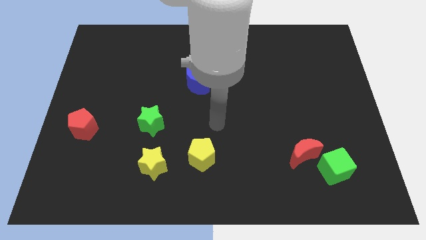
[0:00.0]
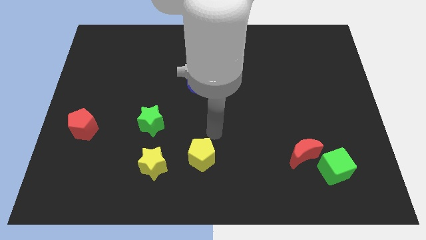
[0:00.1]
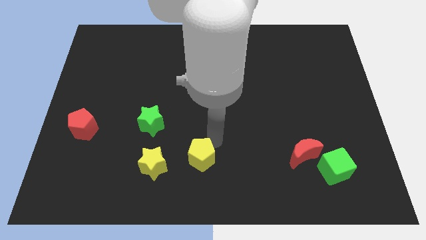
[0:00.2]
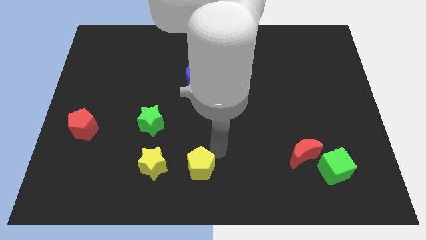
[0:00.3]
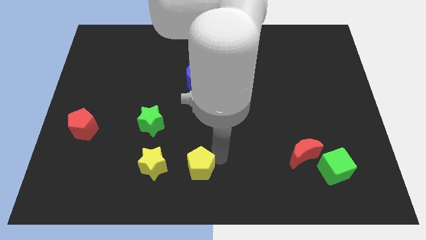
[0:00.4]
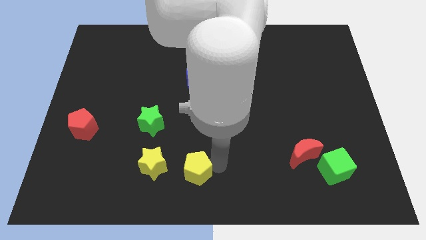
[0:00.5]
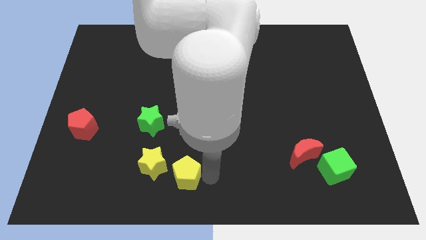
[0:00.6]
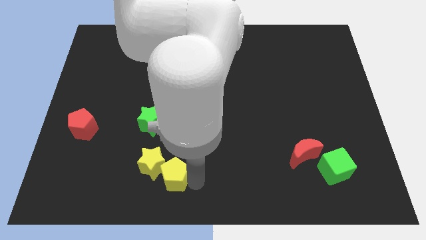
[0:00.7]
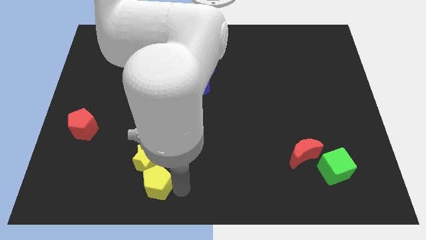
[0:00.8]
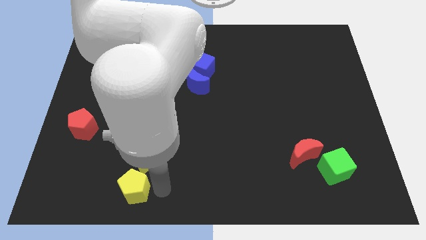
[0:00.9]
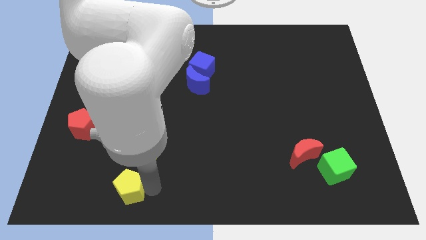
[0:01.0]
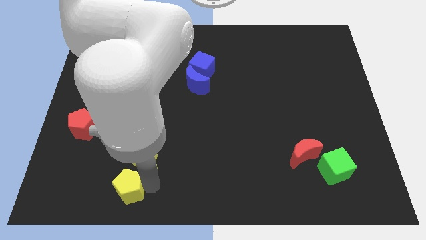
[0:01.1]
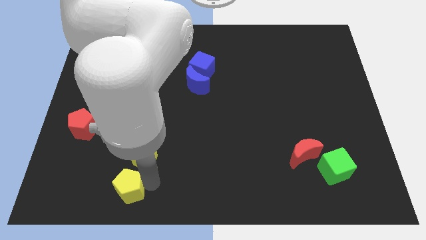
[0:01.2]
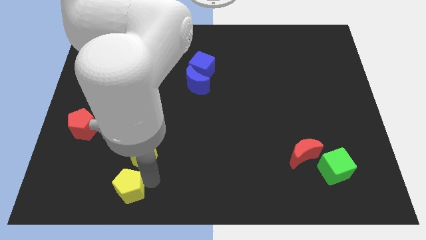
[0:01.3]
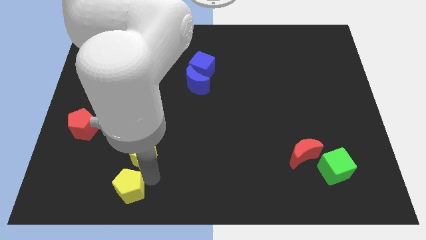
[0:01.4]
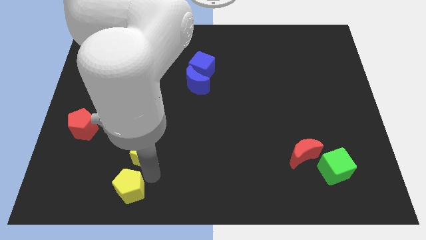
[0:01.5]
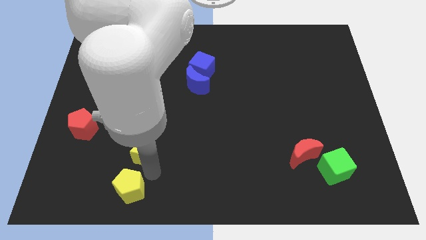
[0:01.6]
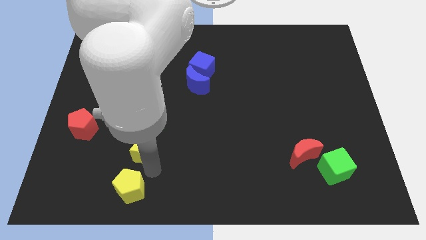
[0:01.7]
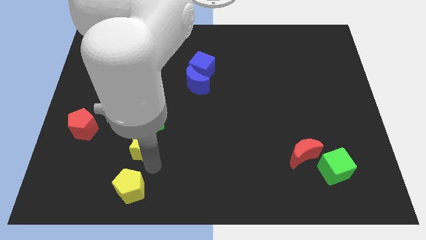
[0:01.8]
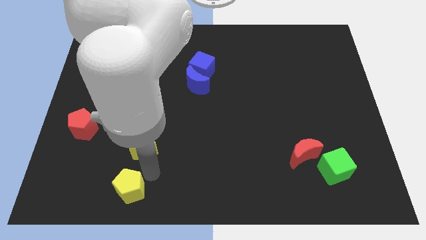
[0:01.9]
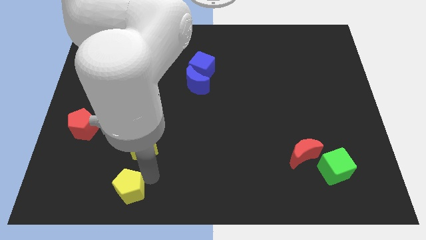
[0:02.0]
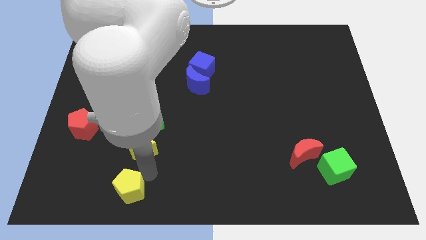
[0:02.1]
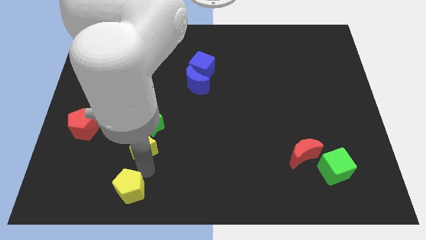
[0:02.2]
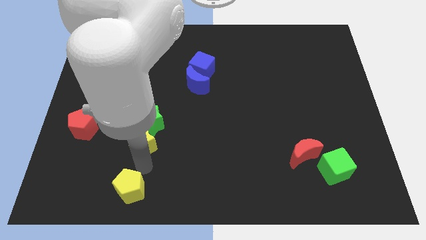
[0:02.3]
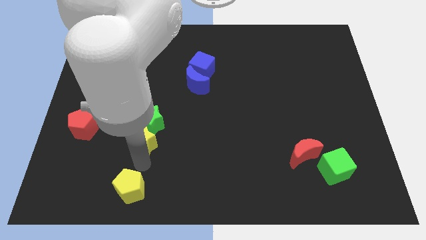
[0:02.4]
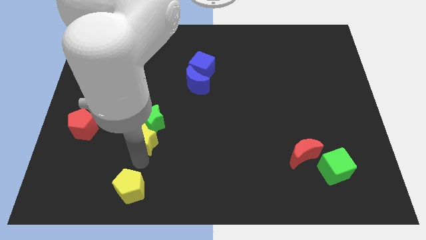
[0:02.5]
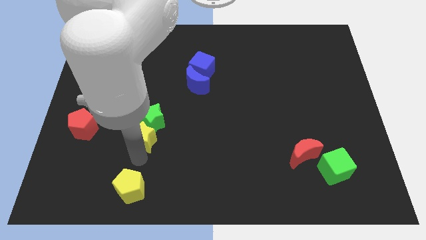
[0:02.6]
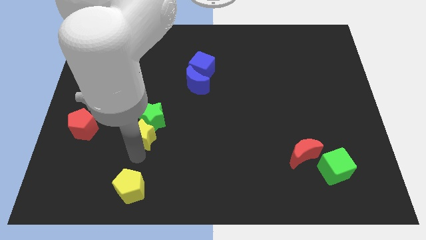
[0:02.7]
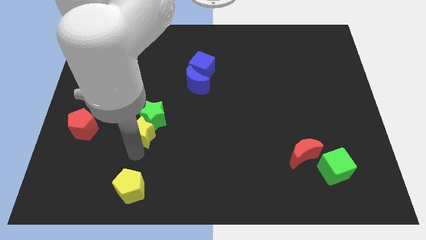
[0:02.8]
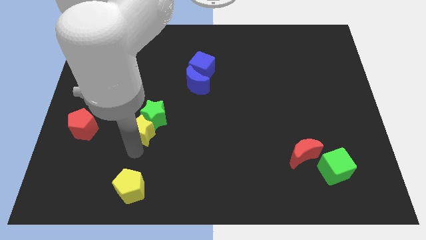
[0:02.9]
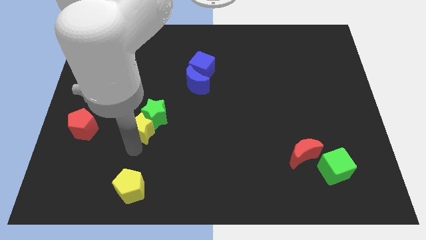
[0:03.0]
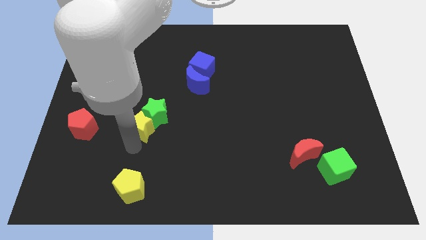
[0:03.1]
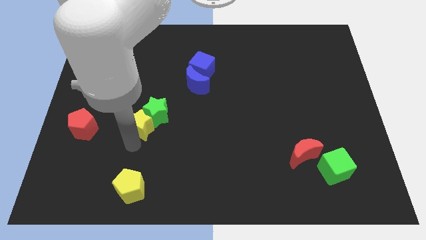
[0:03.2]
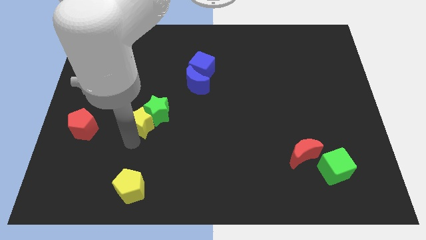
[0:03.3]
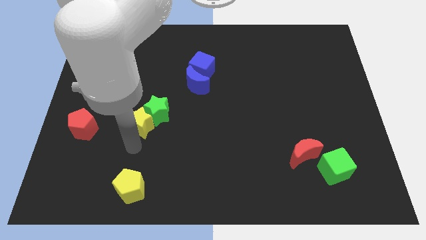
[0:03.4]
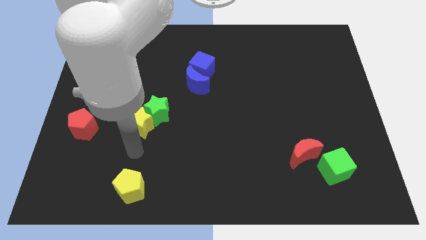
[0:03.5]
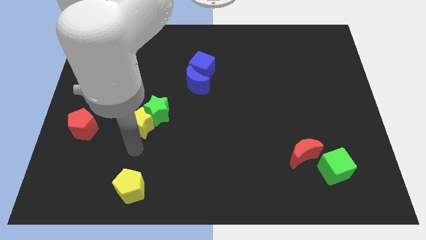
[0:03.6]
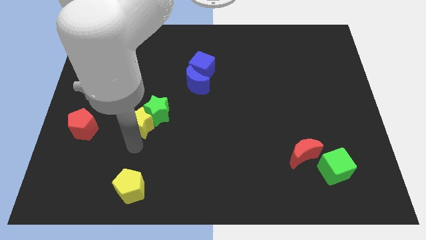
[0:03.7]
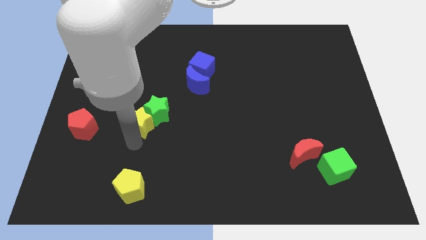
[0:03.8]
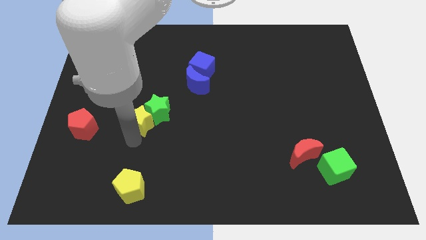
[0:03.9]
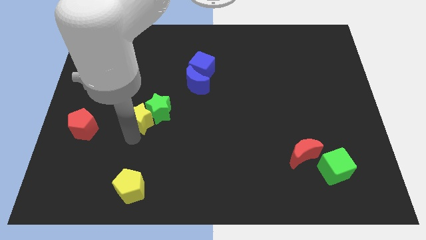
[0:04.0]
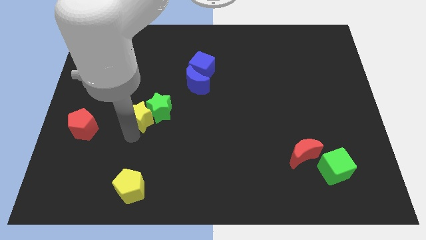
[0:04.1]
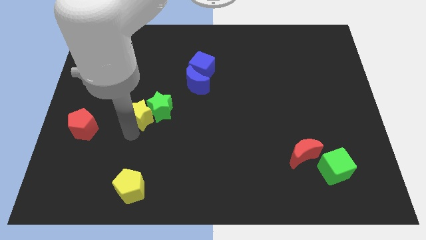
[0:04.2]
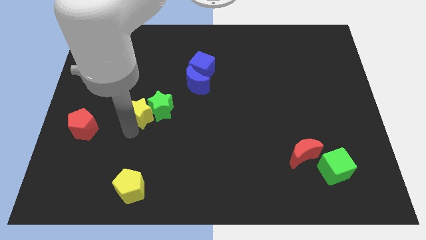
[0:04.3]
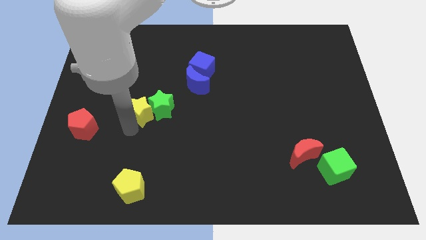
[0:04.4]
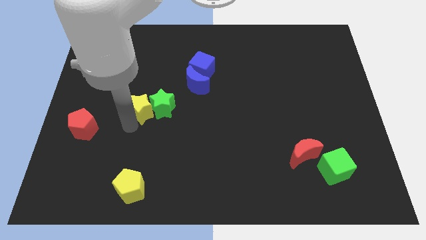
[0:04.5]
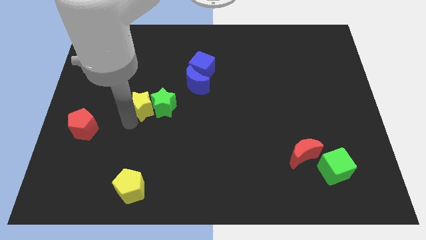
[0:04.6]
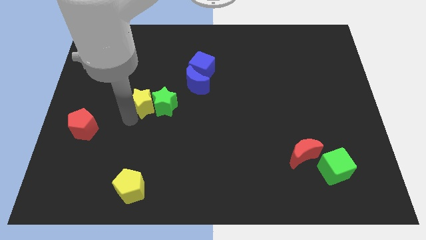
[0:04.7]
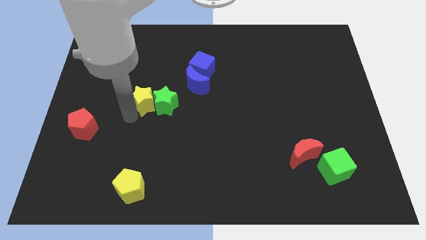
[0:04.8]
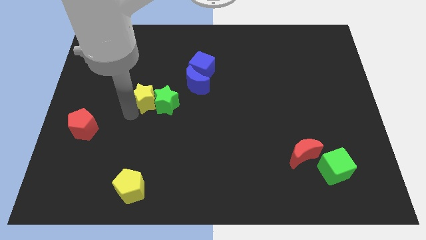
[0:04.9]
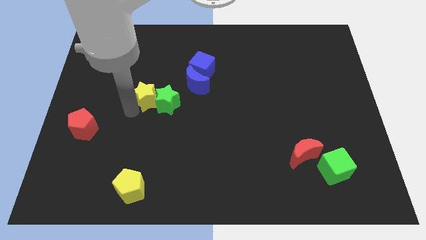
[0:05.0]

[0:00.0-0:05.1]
move the yellow star left of the blue moon

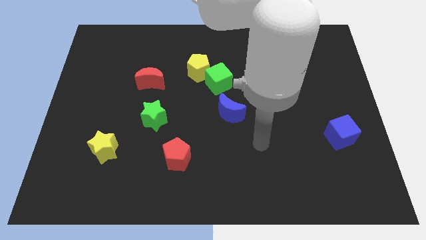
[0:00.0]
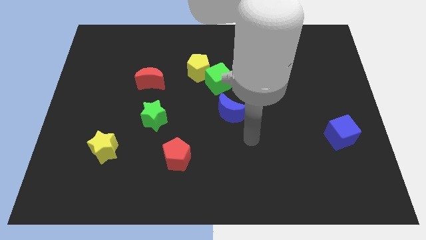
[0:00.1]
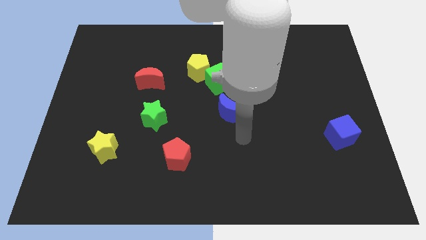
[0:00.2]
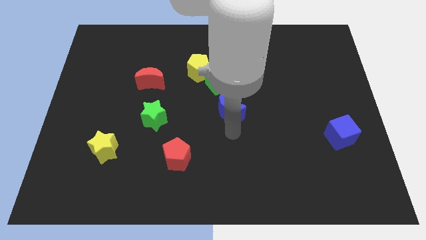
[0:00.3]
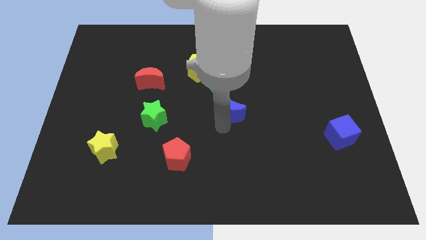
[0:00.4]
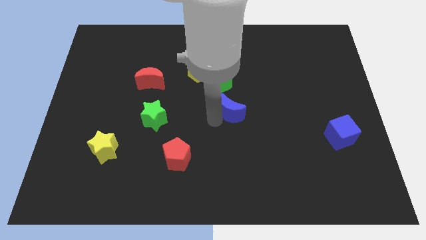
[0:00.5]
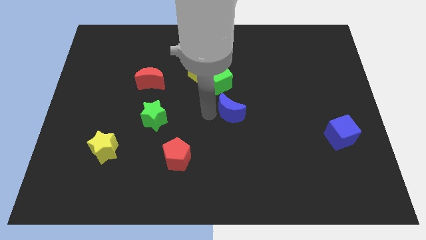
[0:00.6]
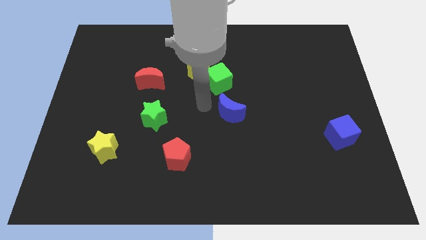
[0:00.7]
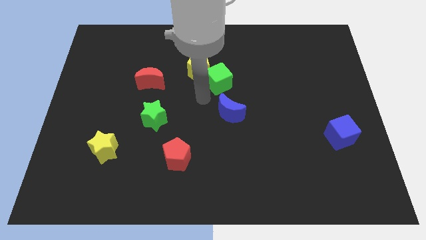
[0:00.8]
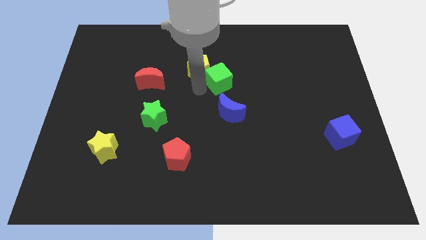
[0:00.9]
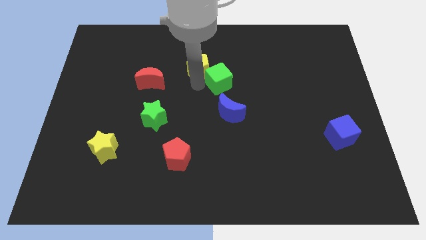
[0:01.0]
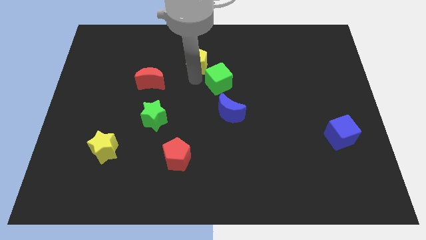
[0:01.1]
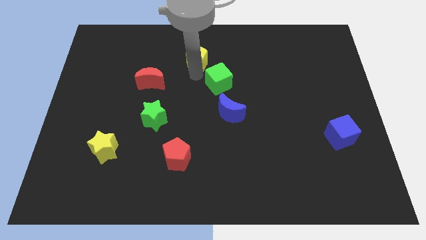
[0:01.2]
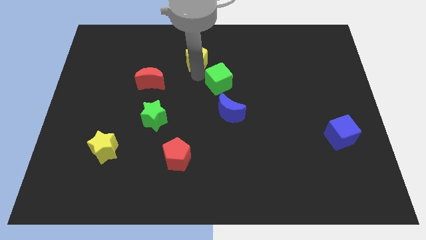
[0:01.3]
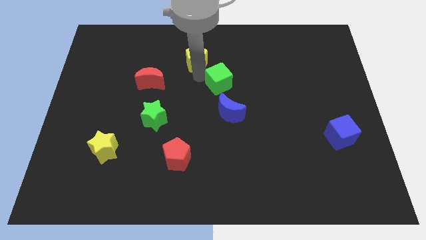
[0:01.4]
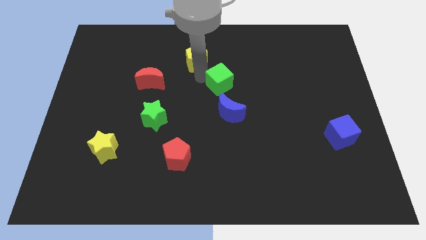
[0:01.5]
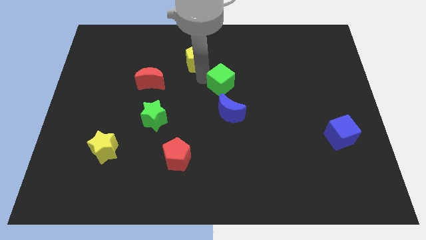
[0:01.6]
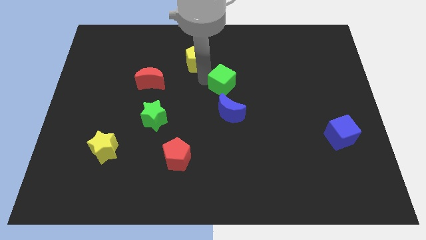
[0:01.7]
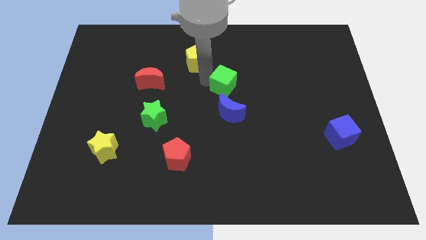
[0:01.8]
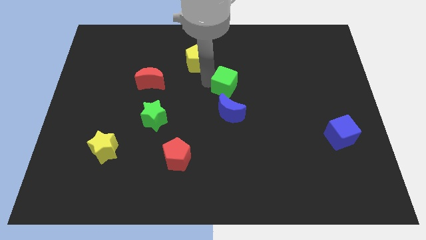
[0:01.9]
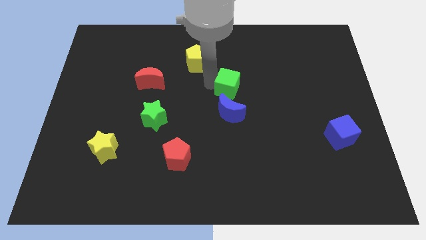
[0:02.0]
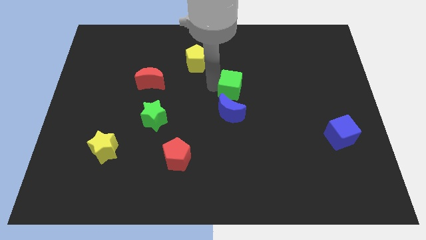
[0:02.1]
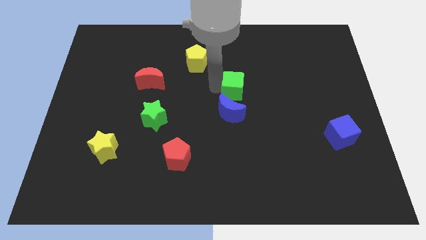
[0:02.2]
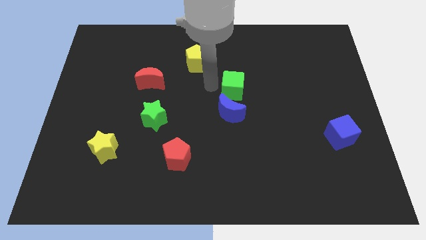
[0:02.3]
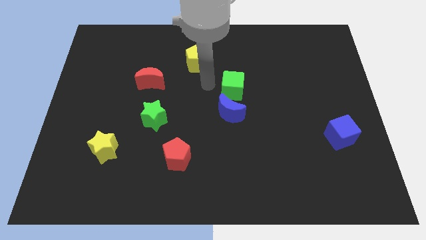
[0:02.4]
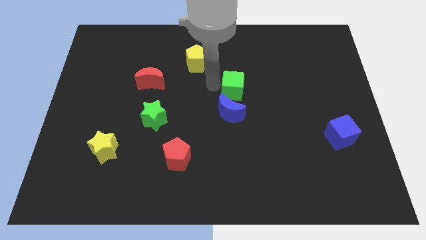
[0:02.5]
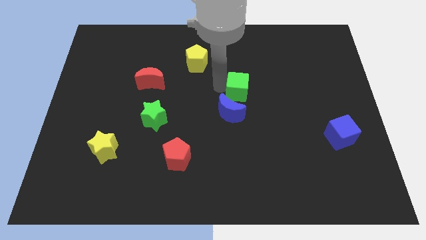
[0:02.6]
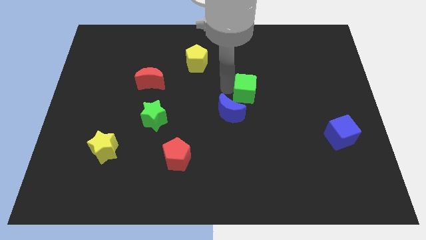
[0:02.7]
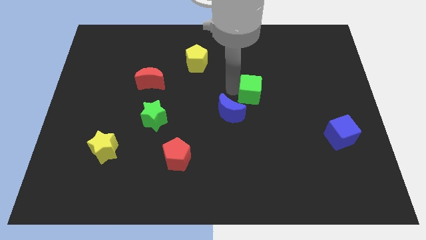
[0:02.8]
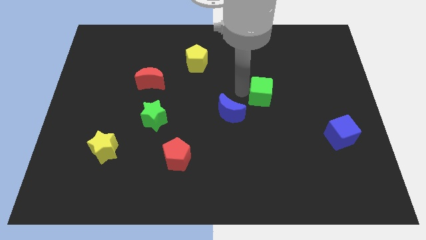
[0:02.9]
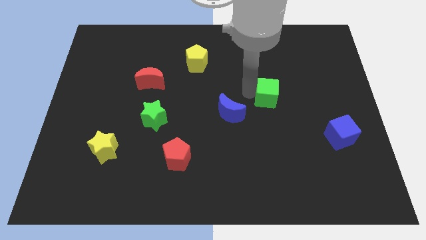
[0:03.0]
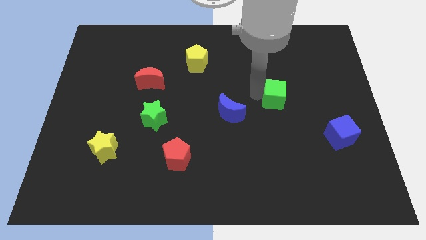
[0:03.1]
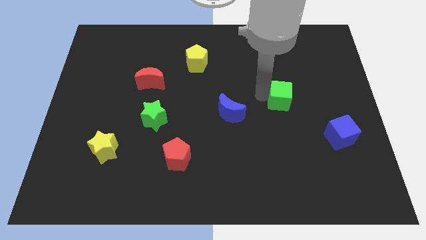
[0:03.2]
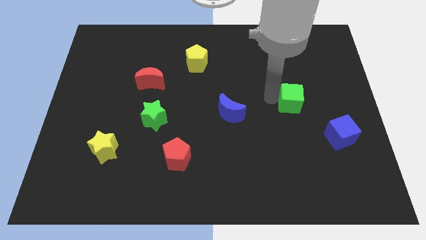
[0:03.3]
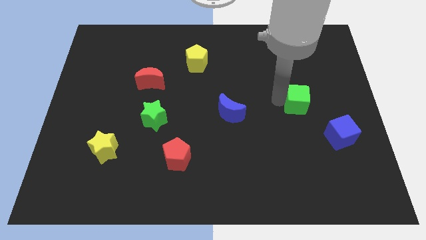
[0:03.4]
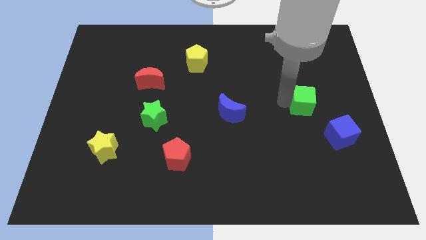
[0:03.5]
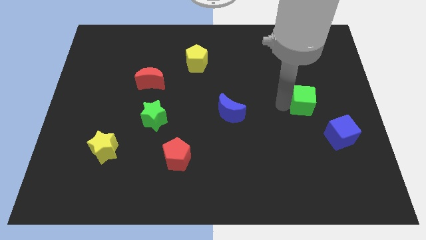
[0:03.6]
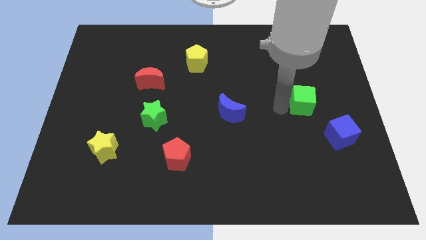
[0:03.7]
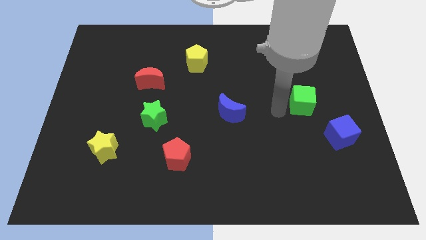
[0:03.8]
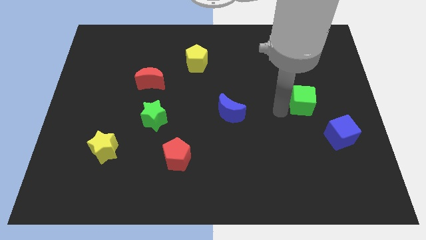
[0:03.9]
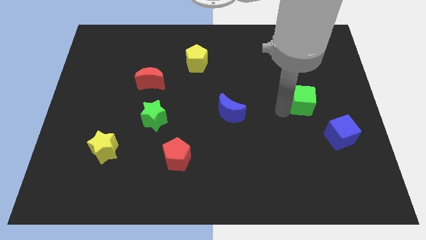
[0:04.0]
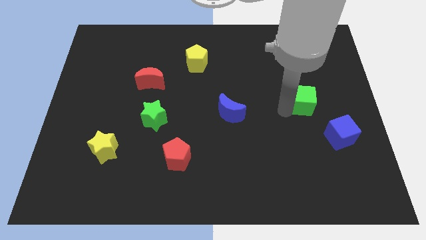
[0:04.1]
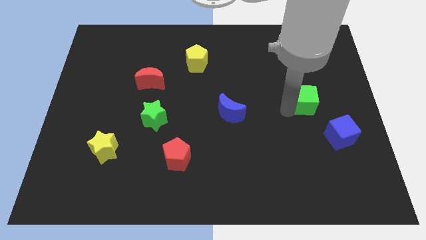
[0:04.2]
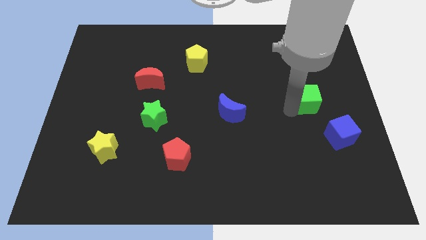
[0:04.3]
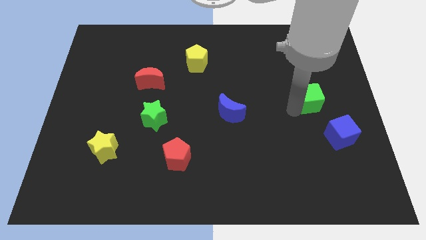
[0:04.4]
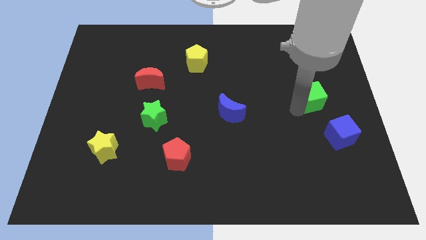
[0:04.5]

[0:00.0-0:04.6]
move the green cube to the top of the blue cube
